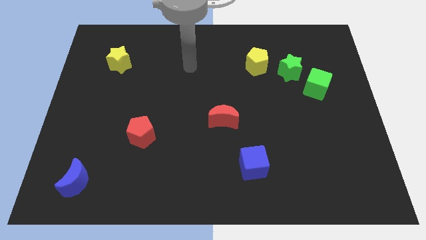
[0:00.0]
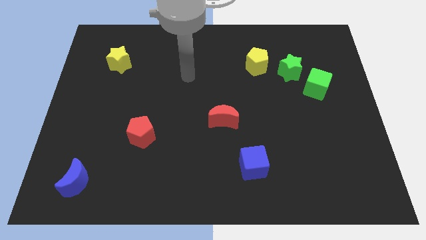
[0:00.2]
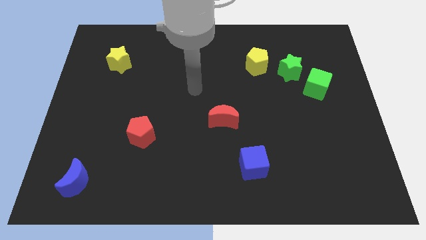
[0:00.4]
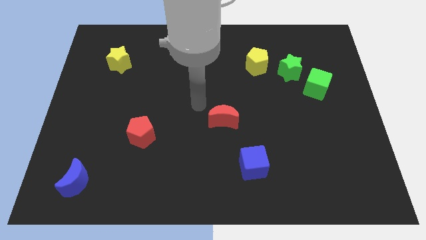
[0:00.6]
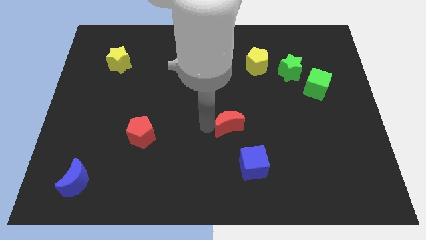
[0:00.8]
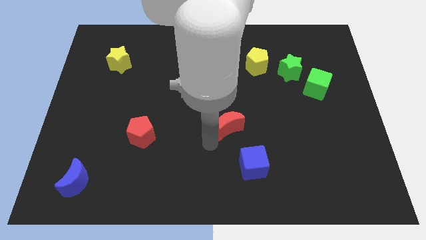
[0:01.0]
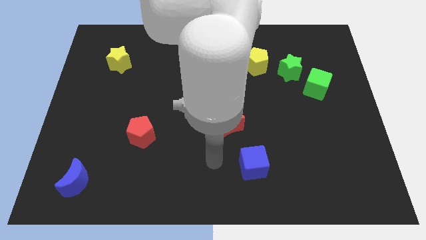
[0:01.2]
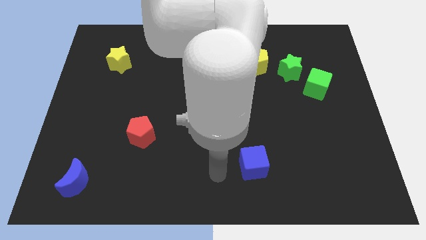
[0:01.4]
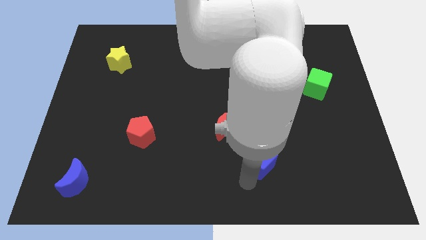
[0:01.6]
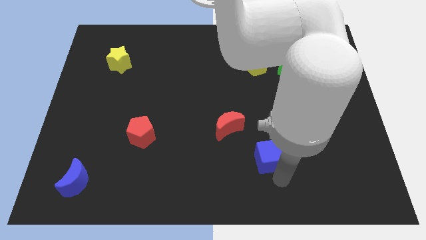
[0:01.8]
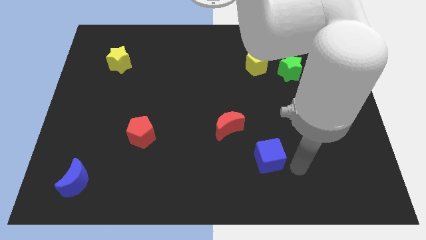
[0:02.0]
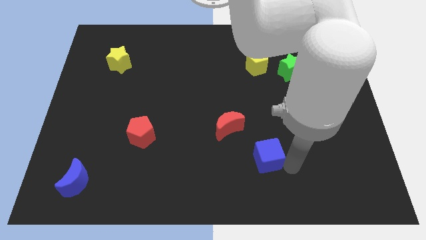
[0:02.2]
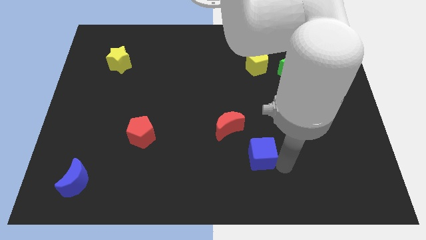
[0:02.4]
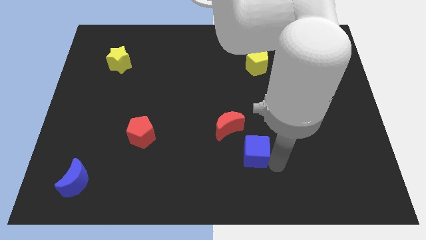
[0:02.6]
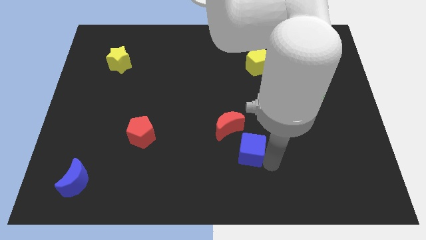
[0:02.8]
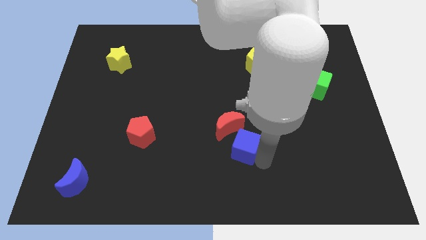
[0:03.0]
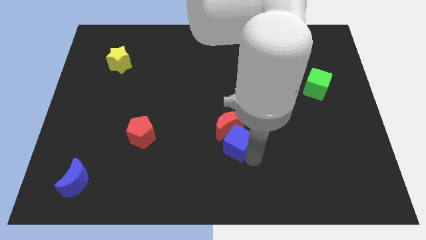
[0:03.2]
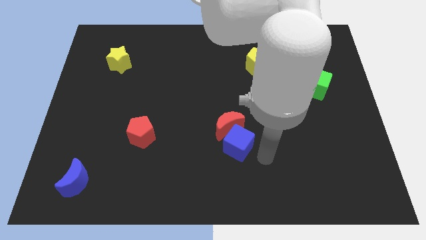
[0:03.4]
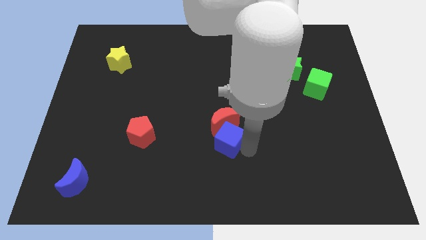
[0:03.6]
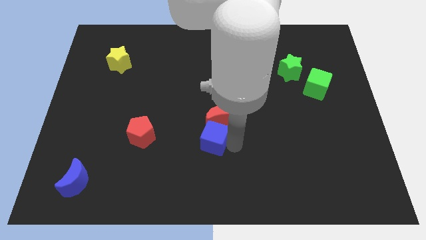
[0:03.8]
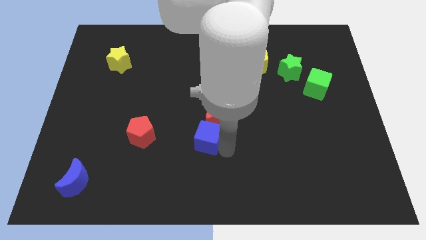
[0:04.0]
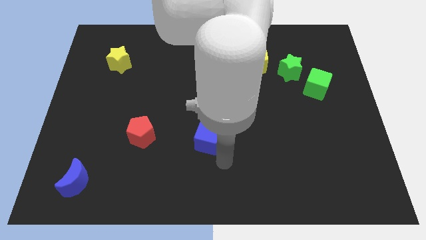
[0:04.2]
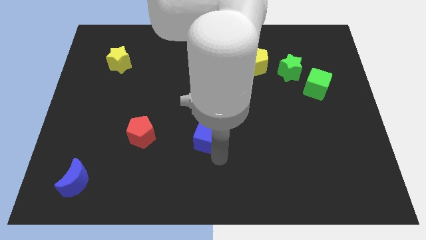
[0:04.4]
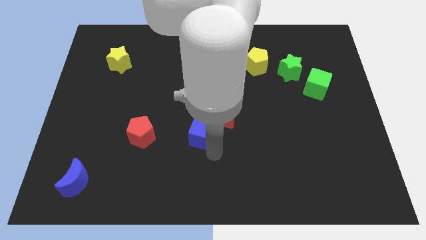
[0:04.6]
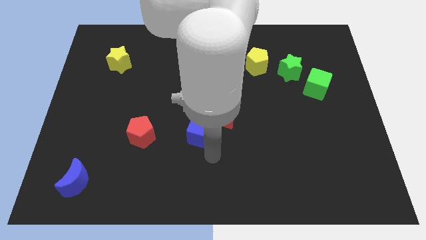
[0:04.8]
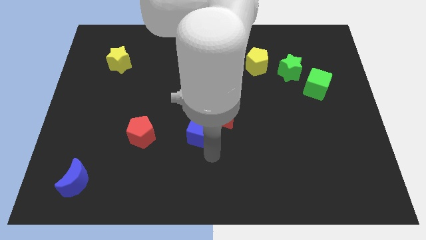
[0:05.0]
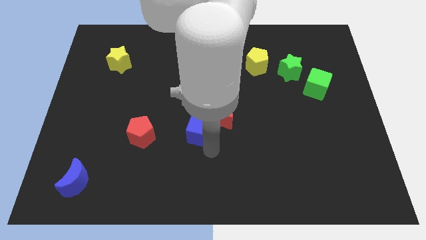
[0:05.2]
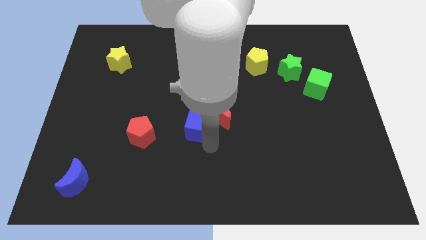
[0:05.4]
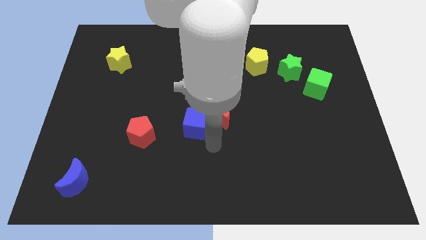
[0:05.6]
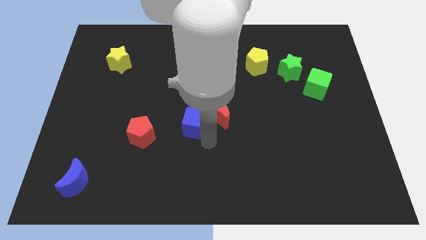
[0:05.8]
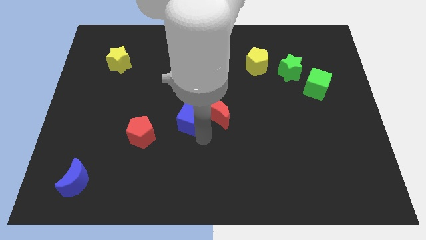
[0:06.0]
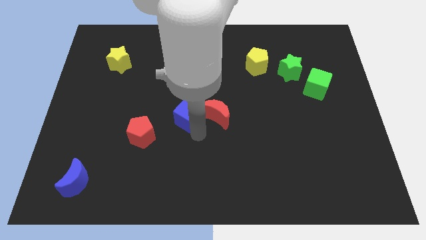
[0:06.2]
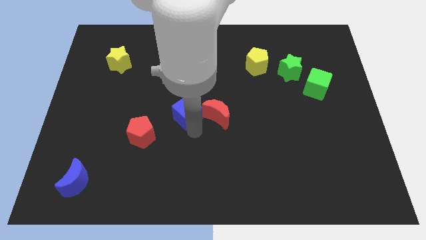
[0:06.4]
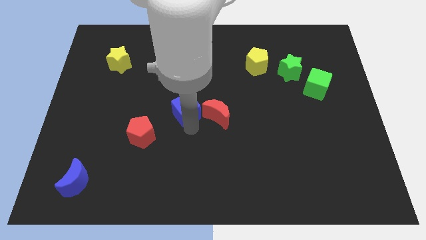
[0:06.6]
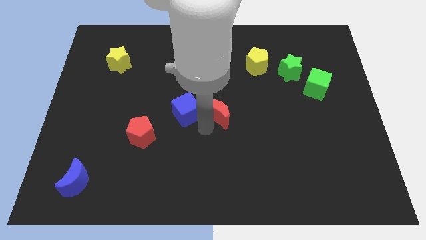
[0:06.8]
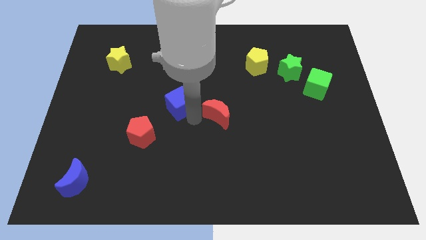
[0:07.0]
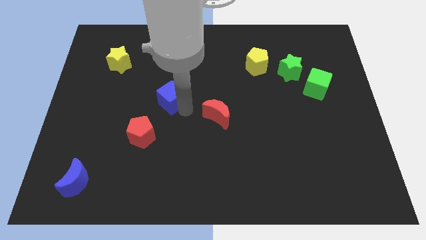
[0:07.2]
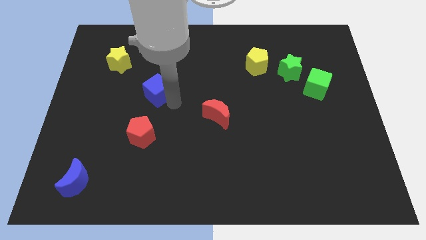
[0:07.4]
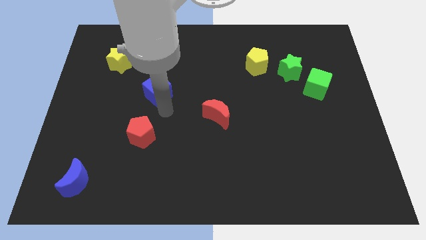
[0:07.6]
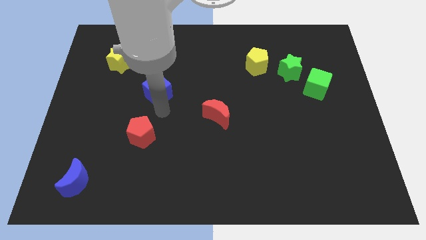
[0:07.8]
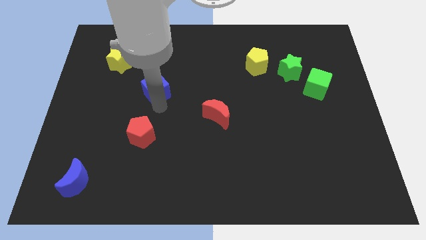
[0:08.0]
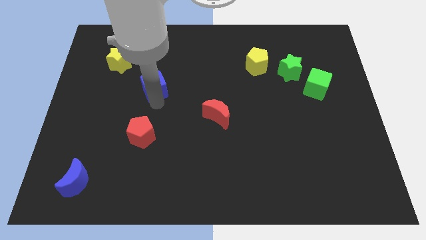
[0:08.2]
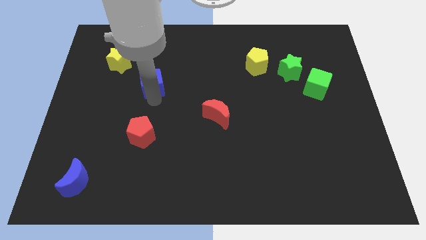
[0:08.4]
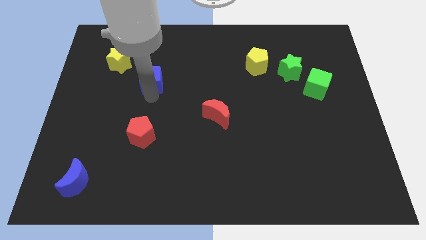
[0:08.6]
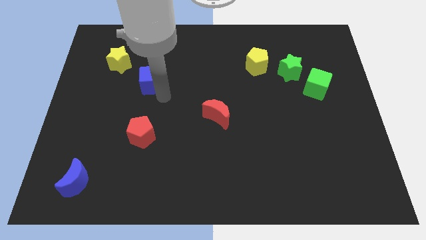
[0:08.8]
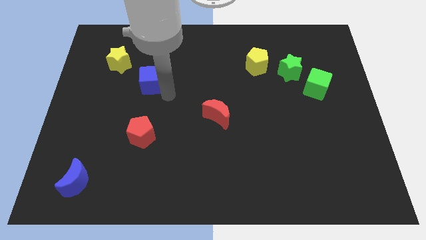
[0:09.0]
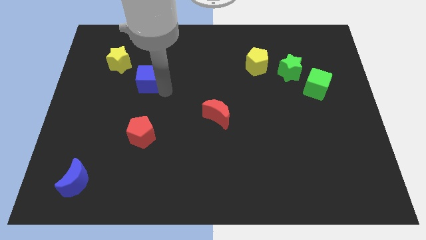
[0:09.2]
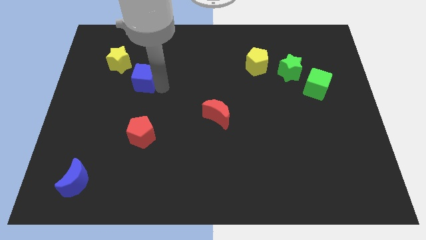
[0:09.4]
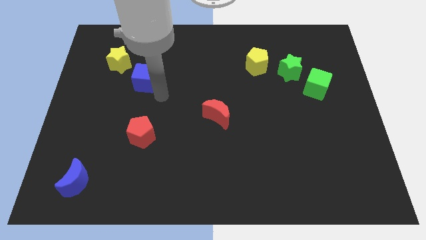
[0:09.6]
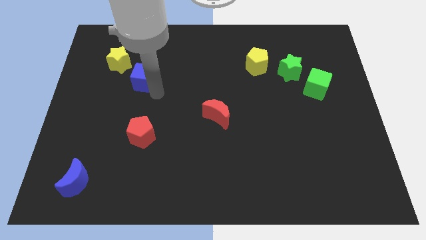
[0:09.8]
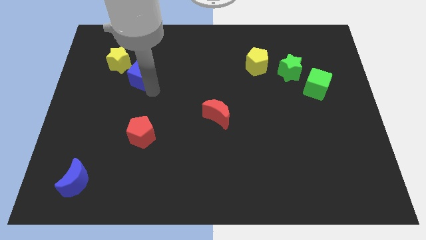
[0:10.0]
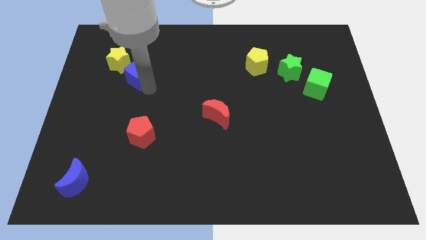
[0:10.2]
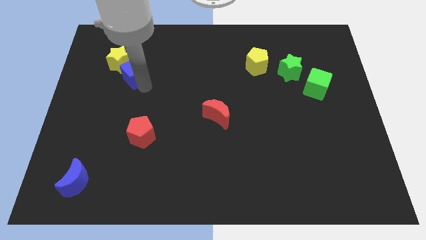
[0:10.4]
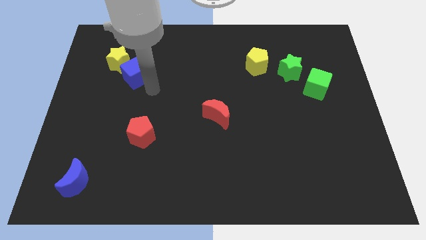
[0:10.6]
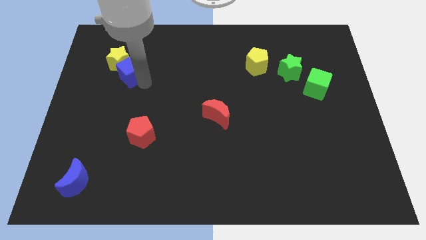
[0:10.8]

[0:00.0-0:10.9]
slide the blue cube close to the yellow star

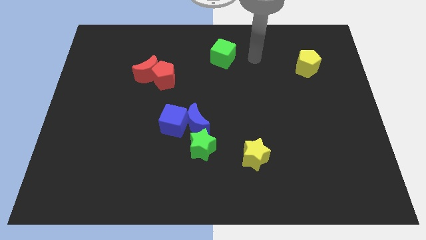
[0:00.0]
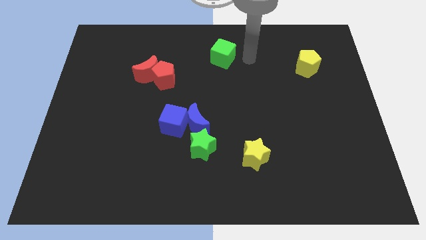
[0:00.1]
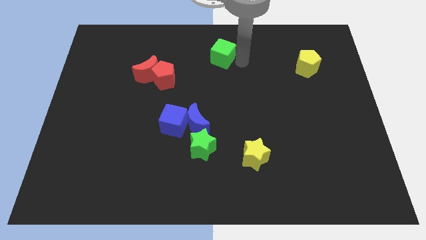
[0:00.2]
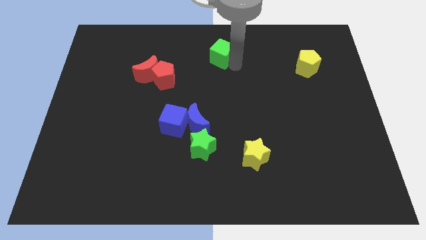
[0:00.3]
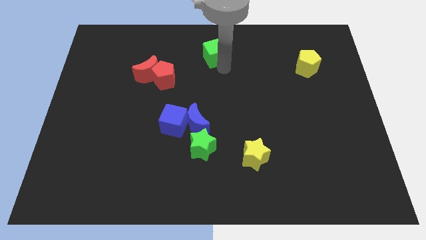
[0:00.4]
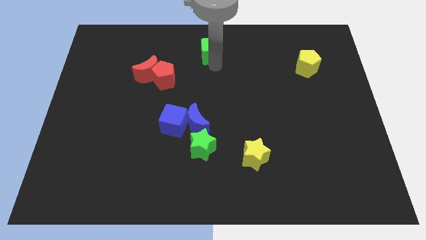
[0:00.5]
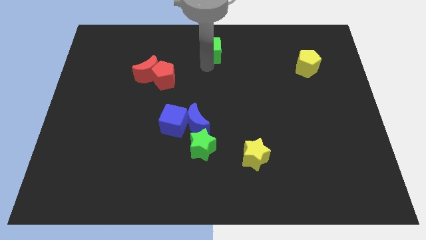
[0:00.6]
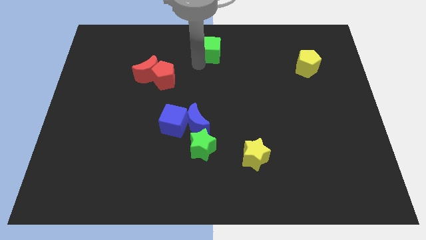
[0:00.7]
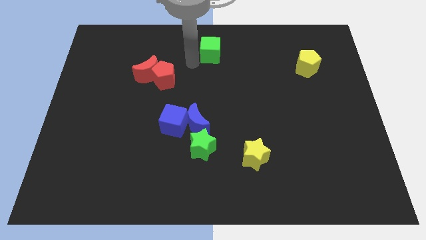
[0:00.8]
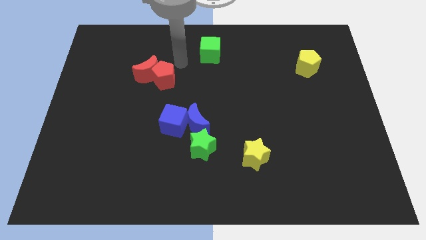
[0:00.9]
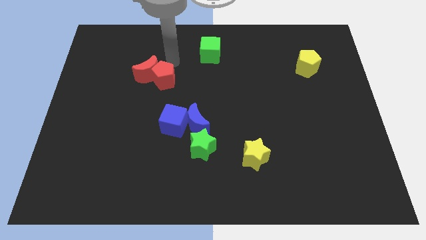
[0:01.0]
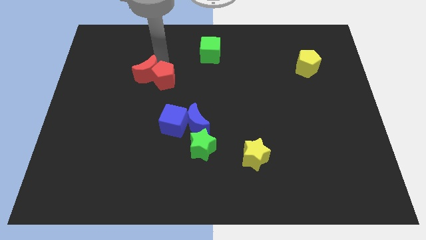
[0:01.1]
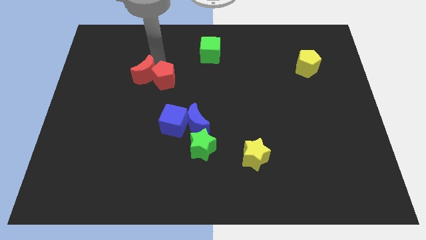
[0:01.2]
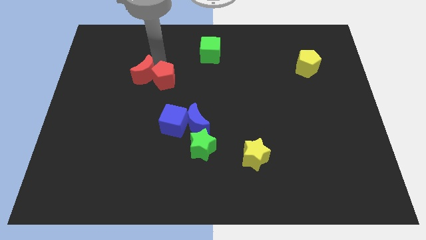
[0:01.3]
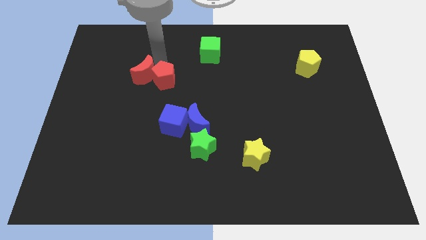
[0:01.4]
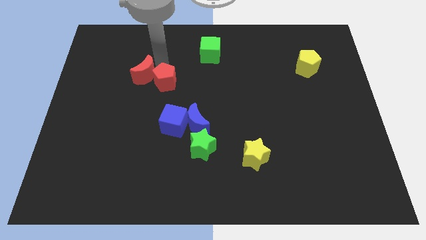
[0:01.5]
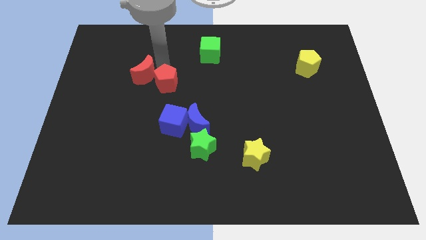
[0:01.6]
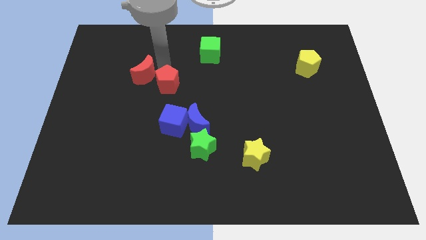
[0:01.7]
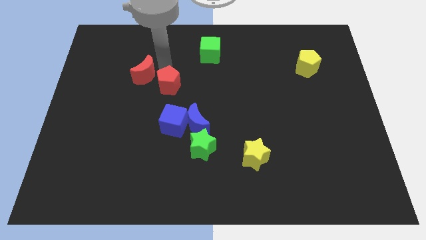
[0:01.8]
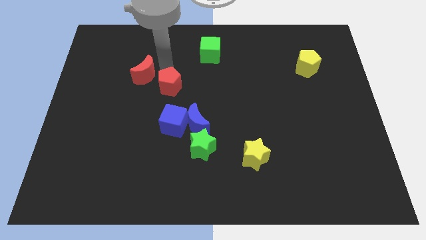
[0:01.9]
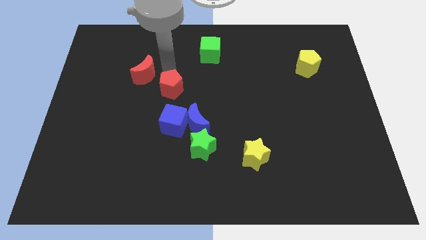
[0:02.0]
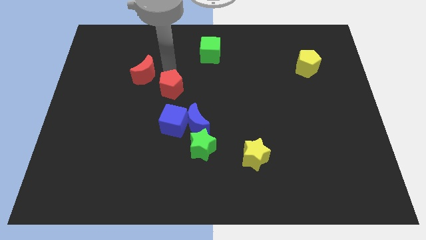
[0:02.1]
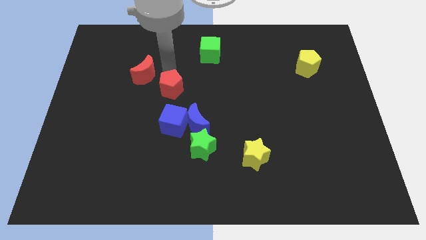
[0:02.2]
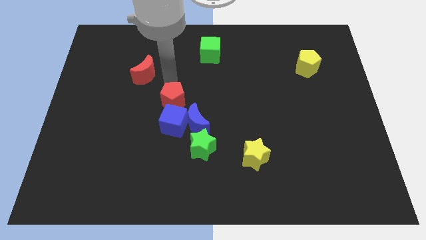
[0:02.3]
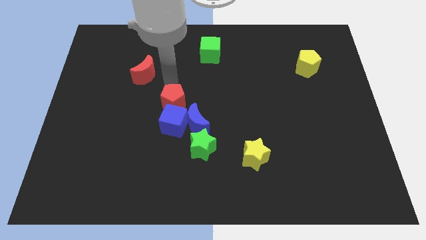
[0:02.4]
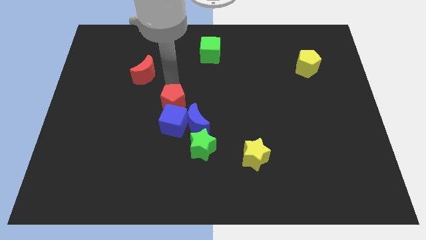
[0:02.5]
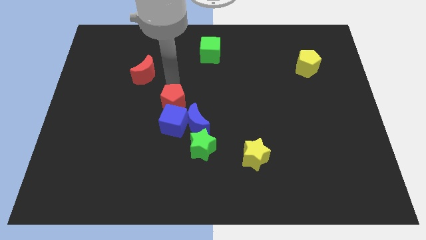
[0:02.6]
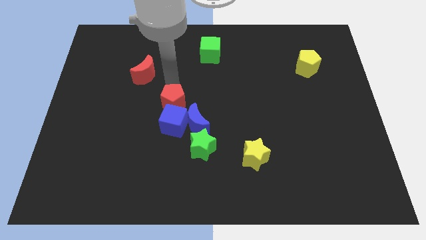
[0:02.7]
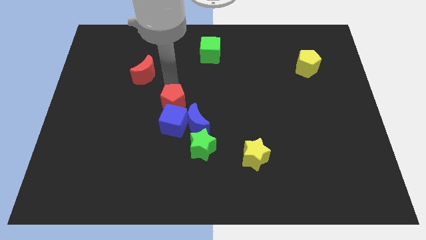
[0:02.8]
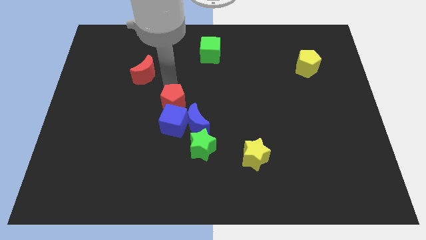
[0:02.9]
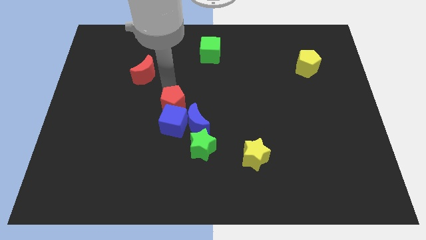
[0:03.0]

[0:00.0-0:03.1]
put the red pentagon towards the blue cube

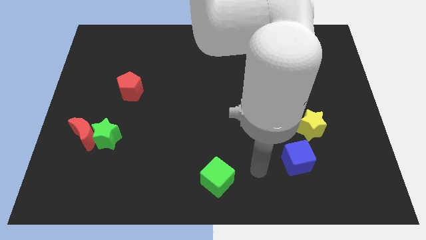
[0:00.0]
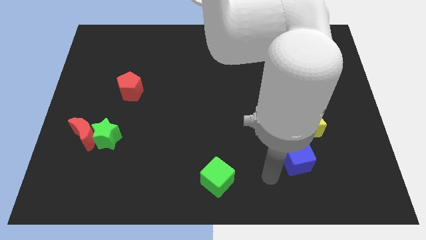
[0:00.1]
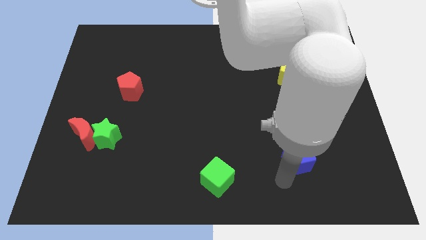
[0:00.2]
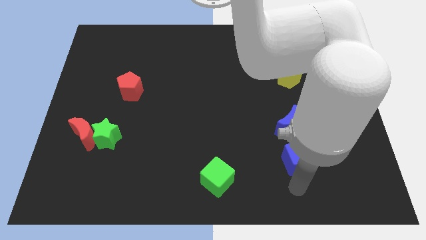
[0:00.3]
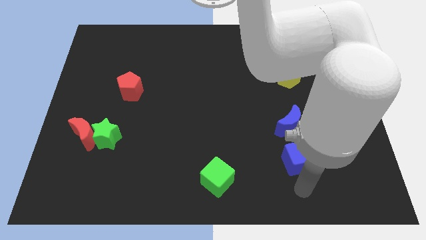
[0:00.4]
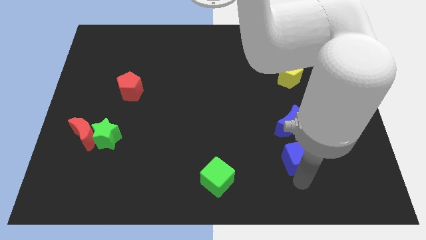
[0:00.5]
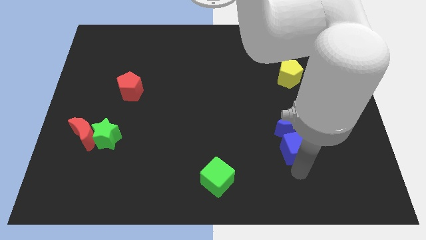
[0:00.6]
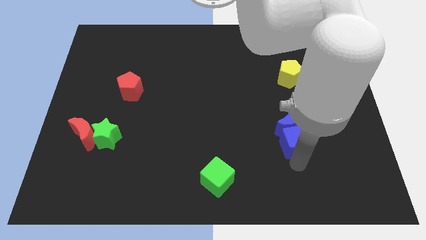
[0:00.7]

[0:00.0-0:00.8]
move the blue cube towards the blue moon
